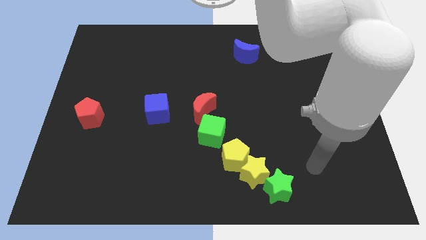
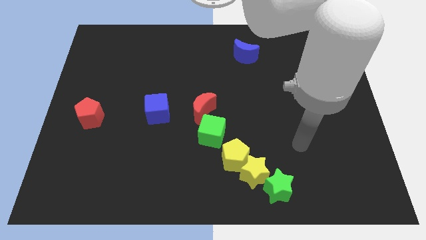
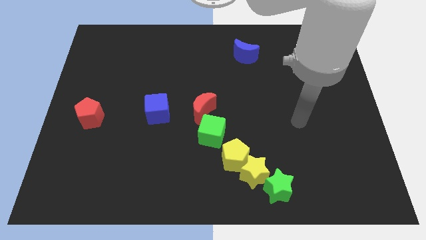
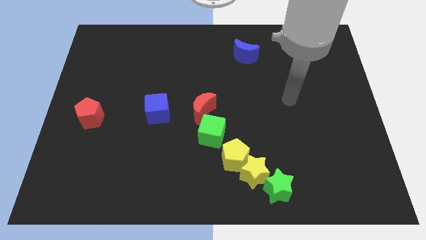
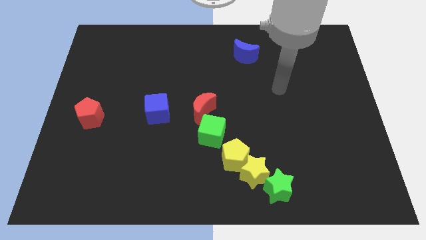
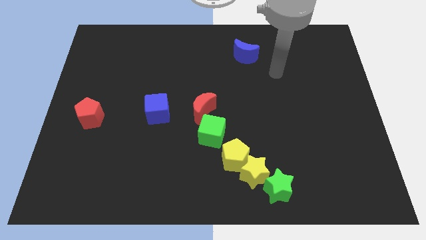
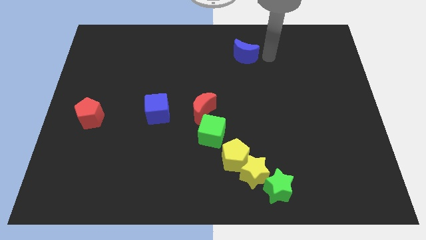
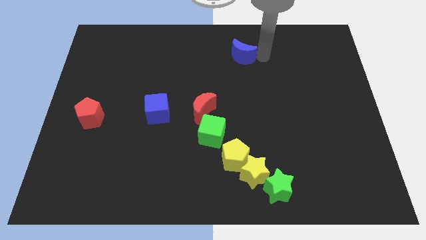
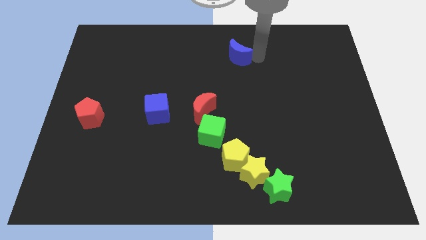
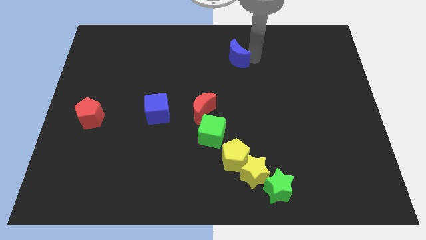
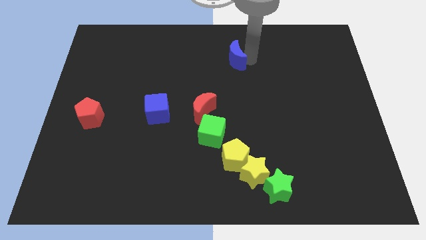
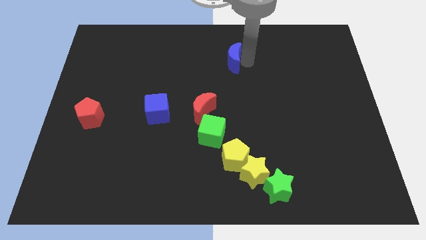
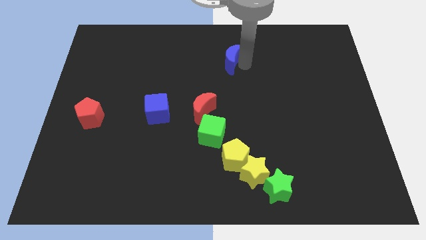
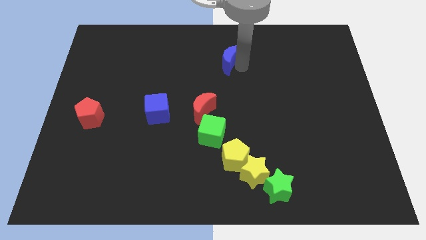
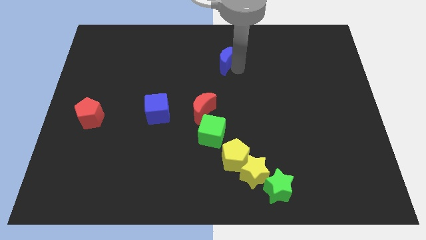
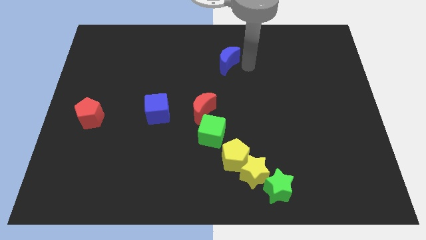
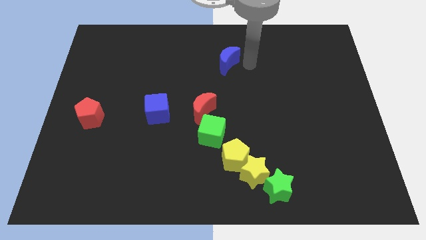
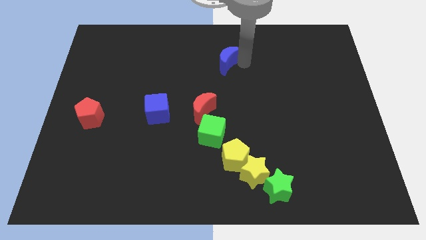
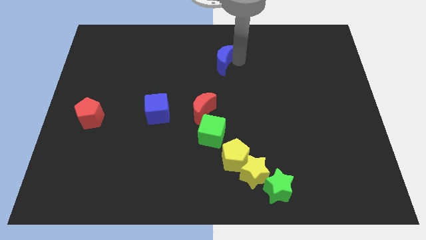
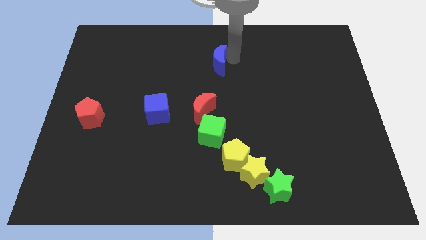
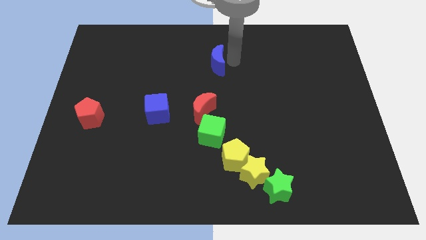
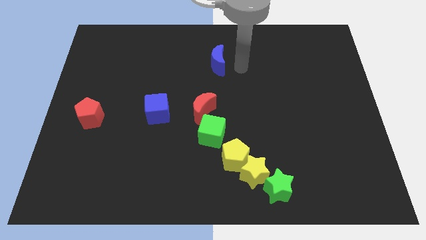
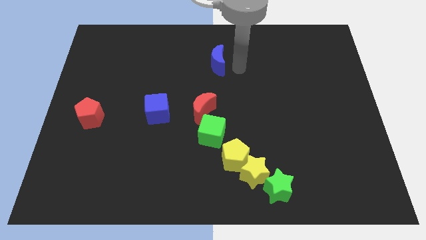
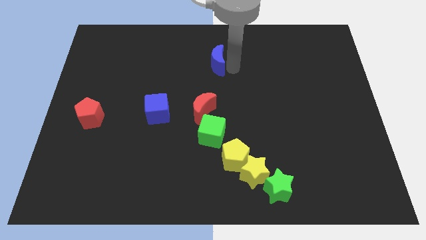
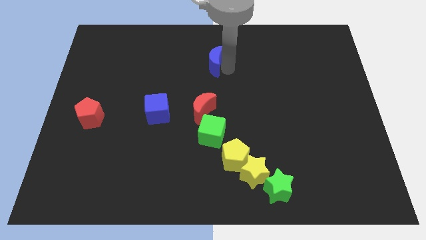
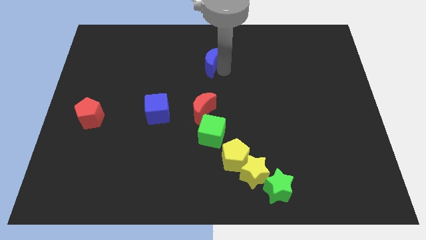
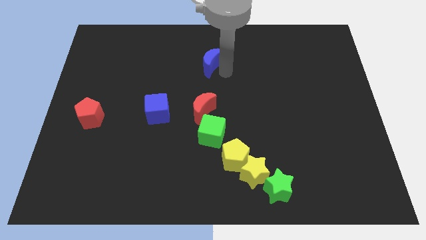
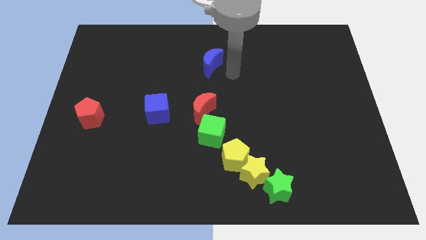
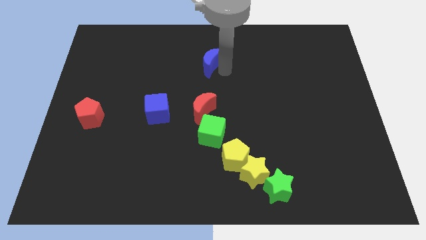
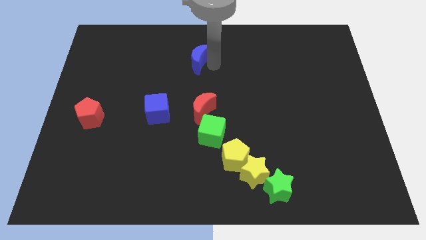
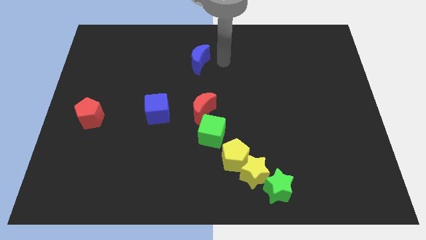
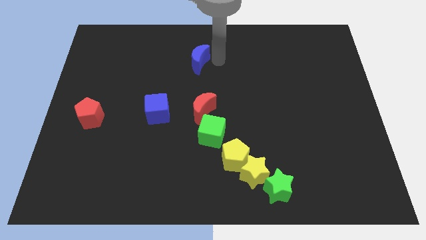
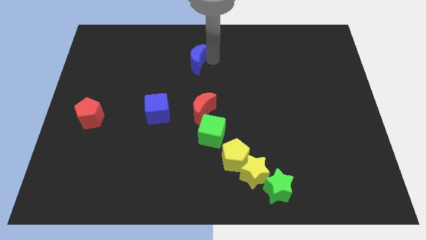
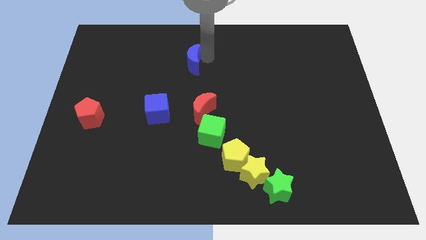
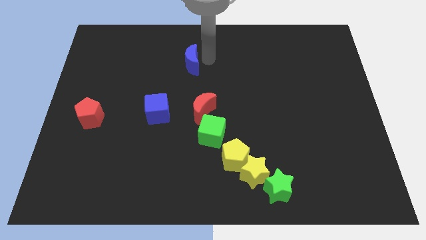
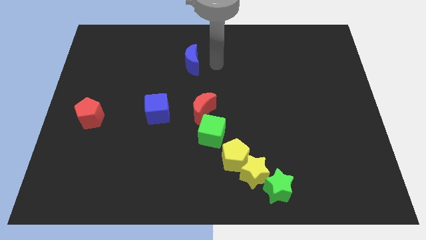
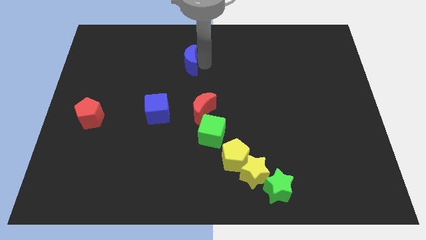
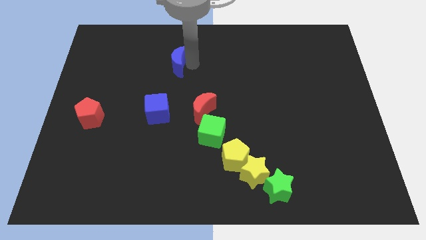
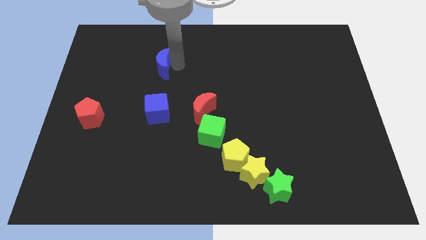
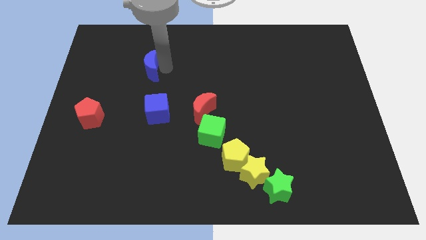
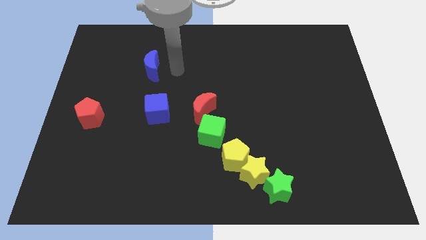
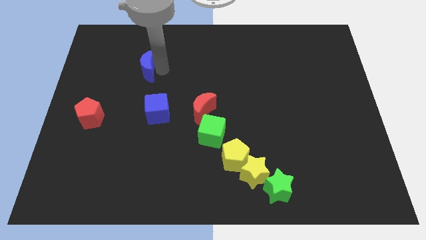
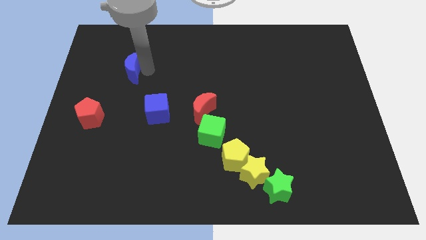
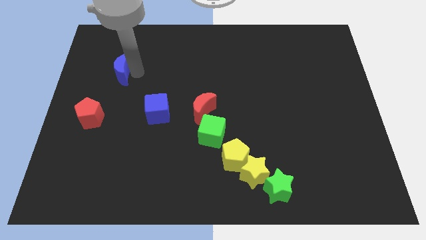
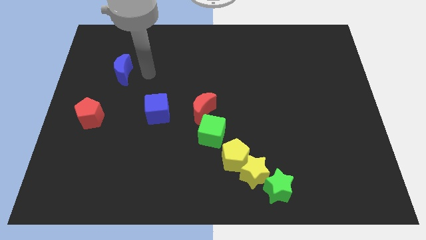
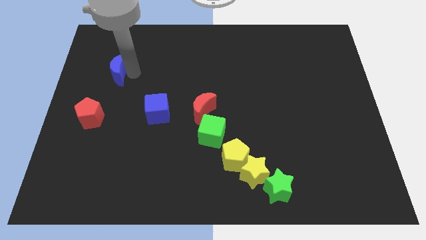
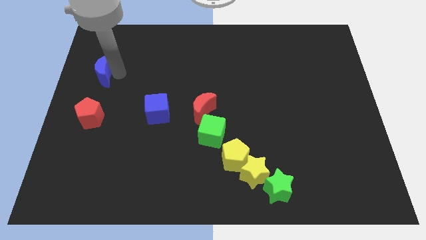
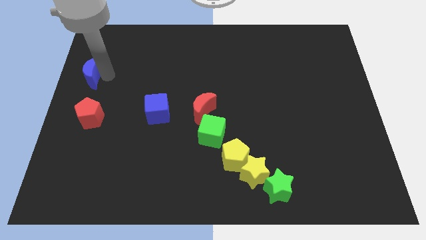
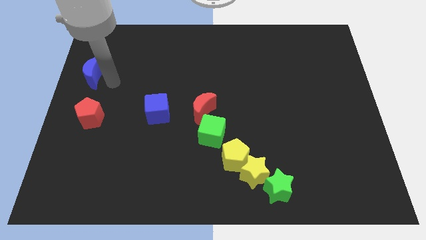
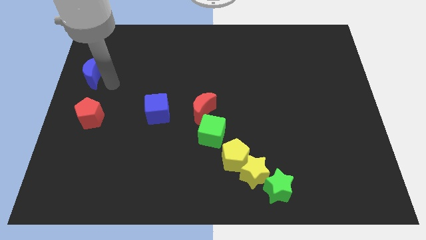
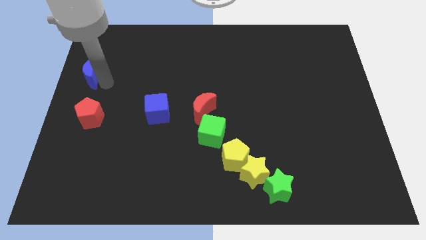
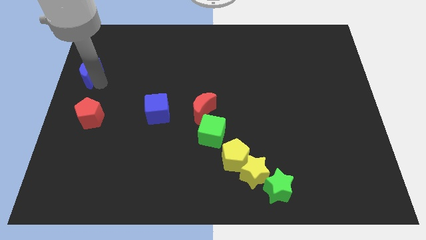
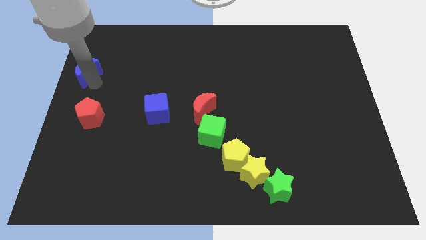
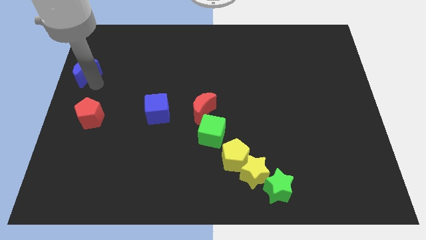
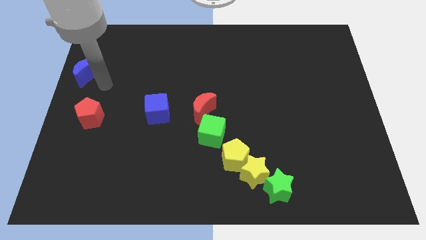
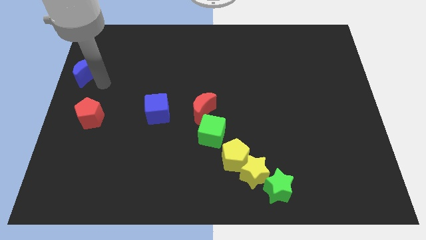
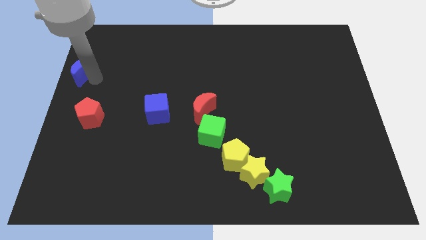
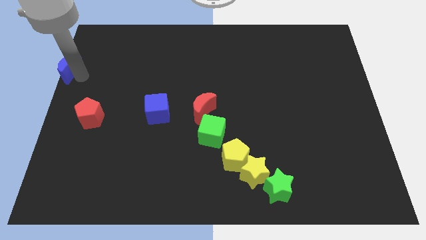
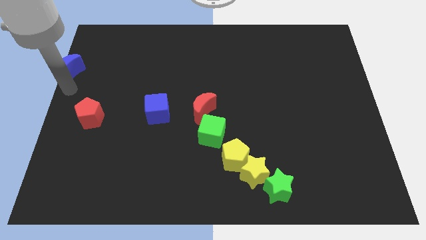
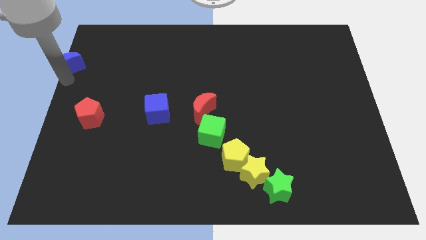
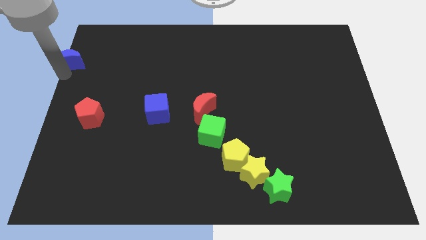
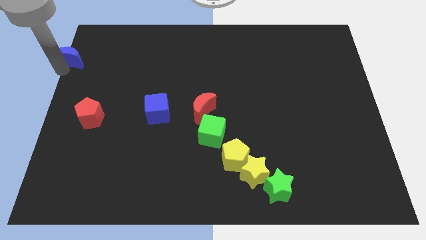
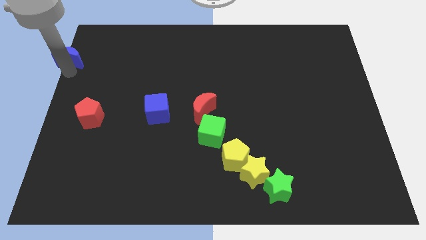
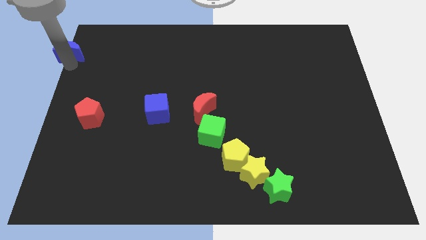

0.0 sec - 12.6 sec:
move the blue moon to the top left
